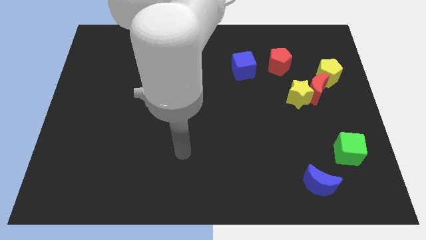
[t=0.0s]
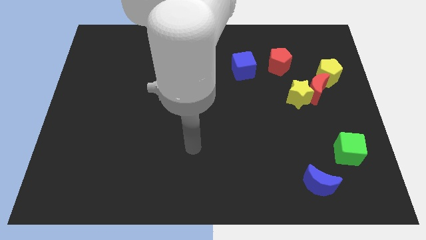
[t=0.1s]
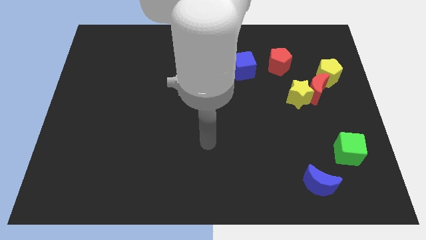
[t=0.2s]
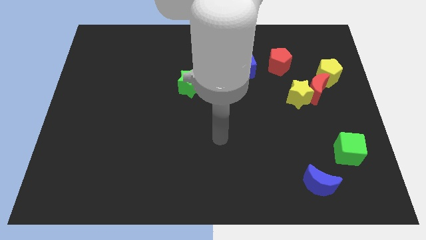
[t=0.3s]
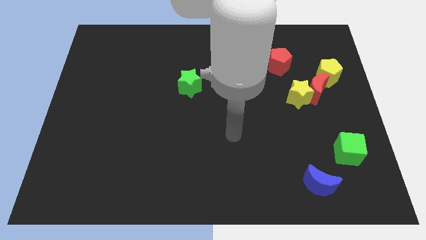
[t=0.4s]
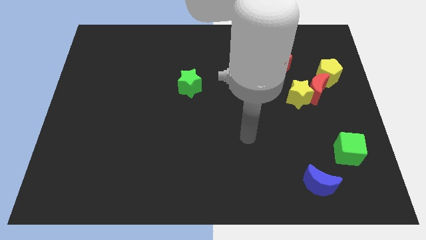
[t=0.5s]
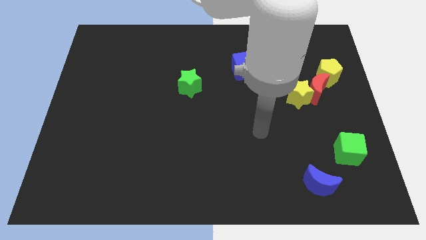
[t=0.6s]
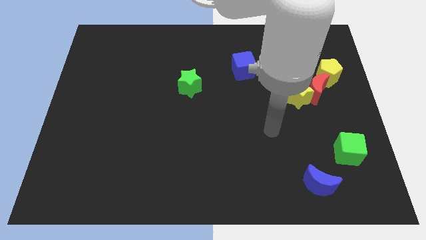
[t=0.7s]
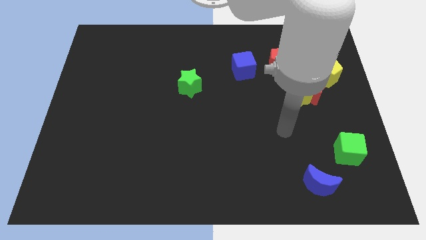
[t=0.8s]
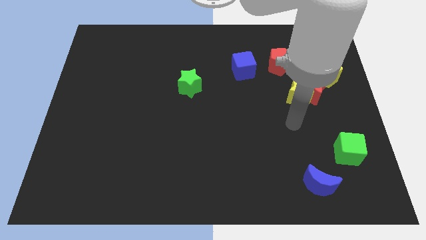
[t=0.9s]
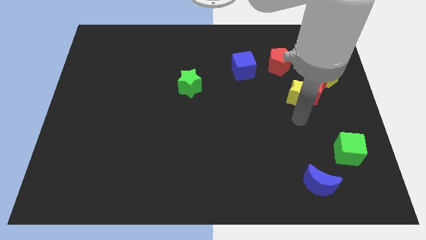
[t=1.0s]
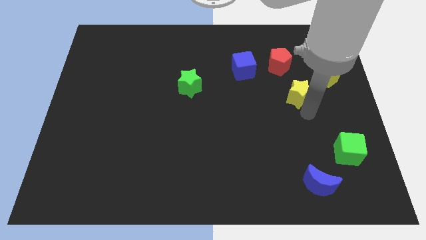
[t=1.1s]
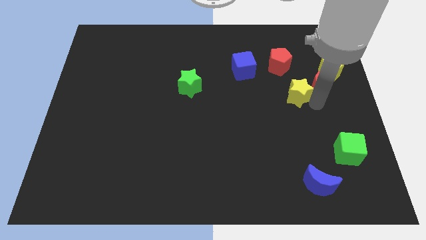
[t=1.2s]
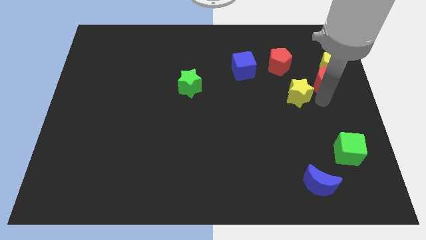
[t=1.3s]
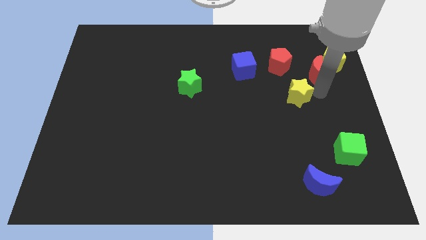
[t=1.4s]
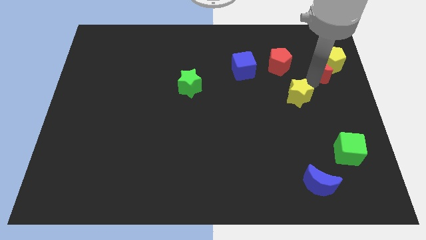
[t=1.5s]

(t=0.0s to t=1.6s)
move the yellow star away from the red moon

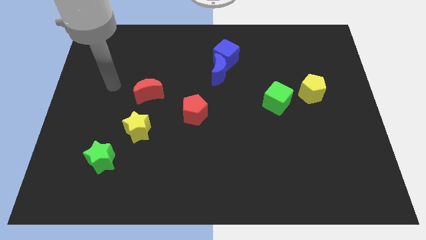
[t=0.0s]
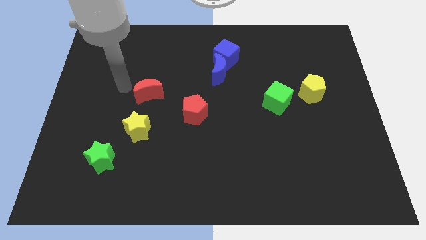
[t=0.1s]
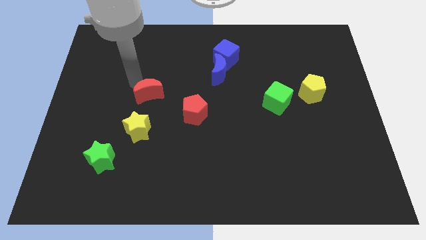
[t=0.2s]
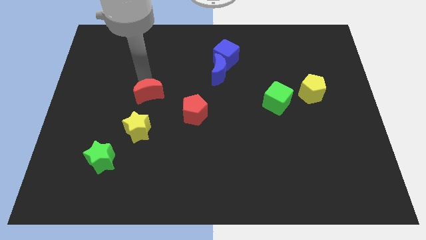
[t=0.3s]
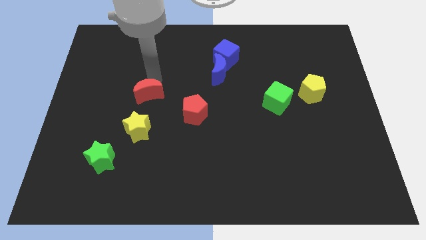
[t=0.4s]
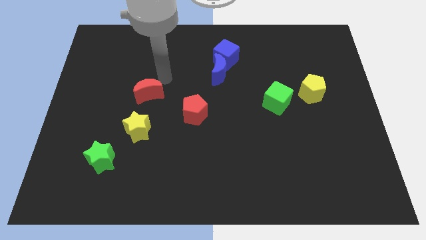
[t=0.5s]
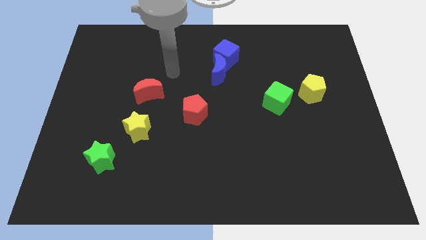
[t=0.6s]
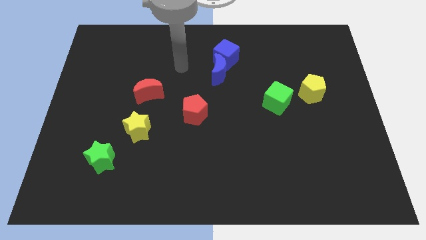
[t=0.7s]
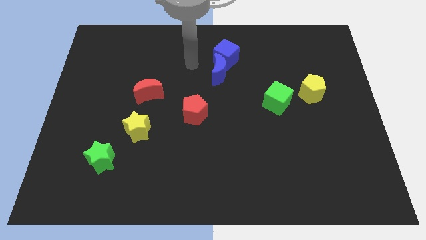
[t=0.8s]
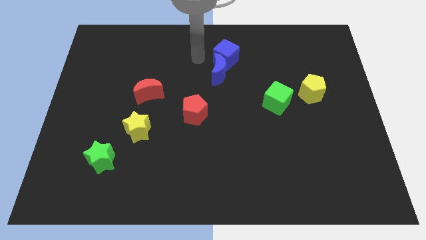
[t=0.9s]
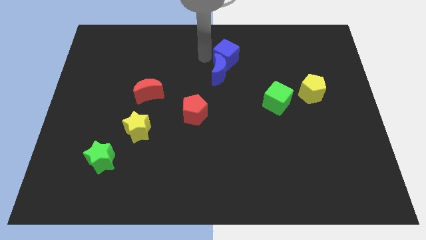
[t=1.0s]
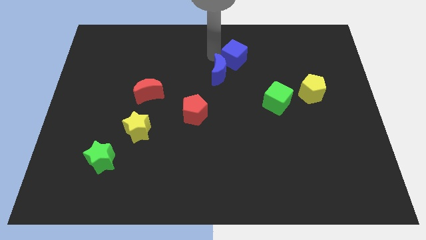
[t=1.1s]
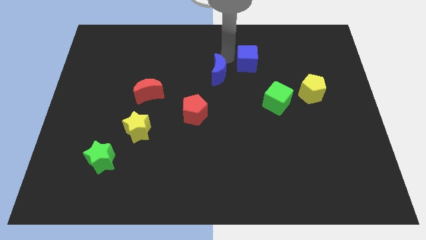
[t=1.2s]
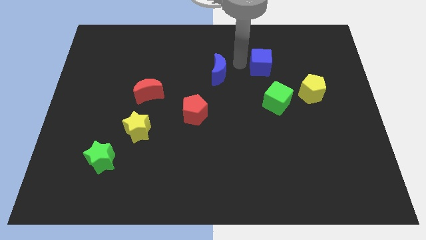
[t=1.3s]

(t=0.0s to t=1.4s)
separate the blue moon from the blue cube

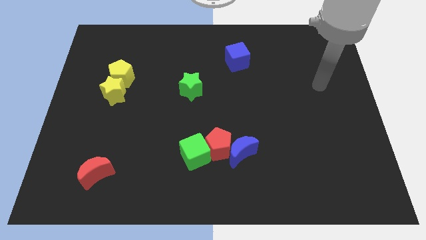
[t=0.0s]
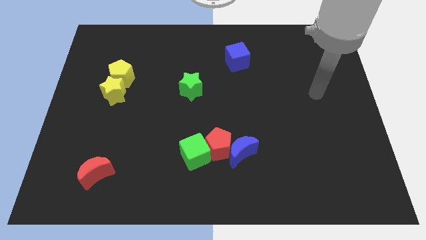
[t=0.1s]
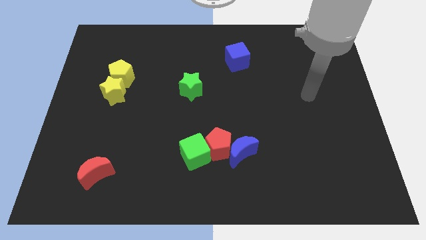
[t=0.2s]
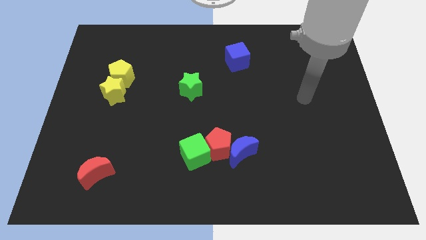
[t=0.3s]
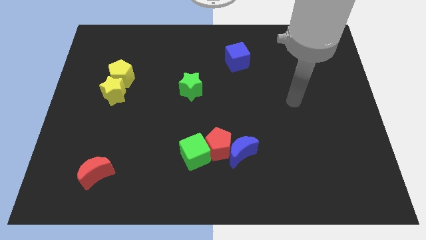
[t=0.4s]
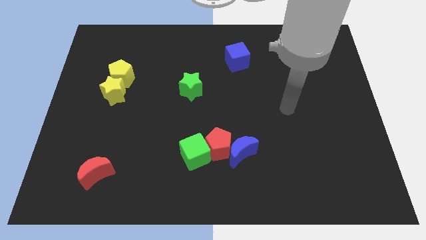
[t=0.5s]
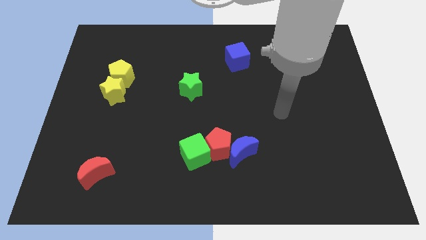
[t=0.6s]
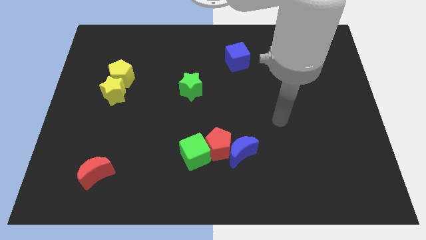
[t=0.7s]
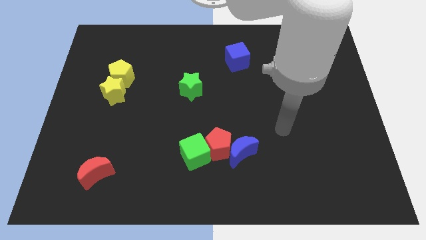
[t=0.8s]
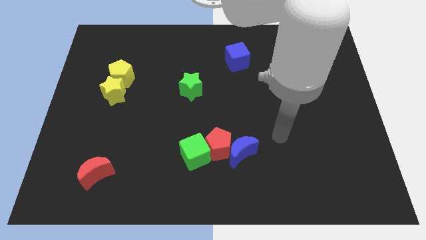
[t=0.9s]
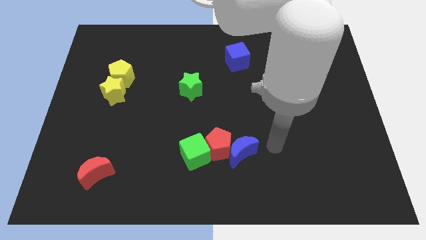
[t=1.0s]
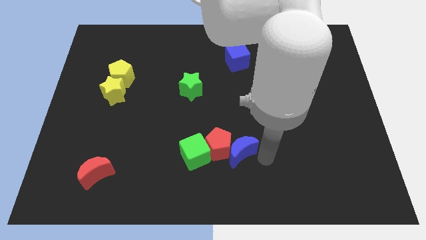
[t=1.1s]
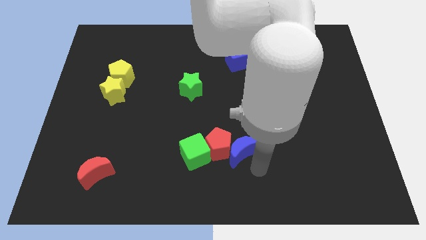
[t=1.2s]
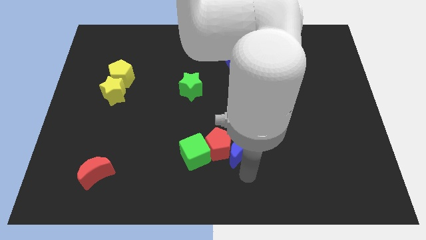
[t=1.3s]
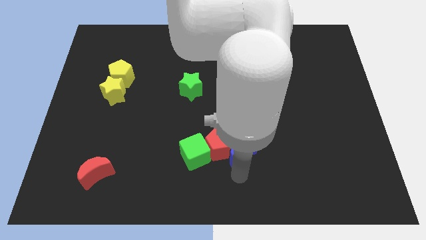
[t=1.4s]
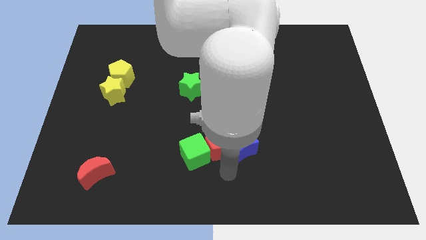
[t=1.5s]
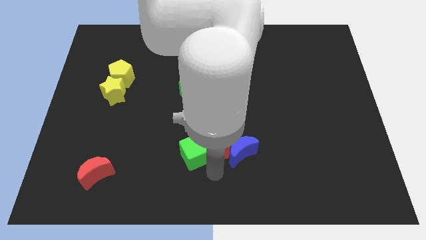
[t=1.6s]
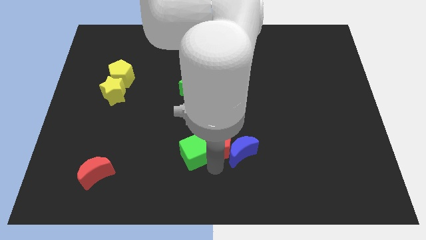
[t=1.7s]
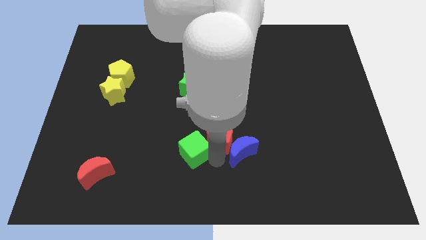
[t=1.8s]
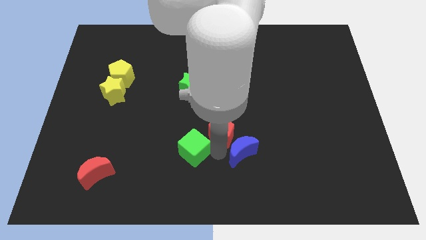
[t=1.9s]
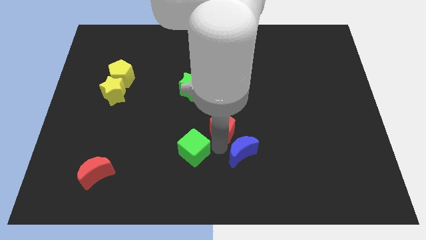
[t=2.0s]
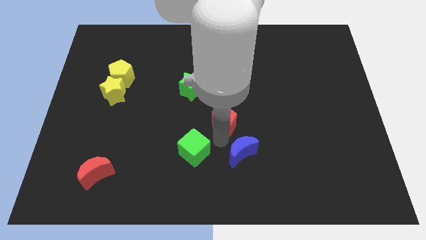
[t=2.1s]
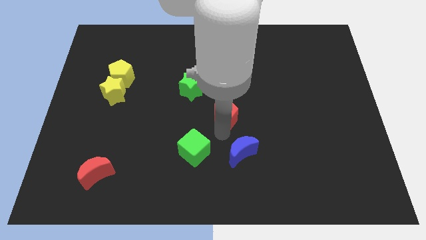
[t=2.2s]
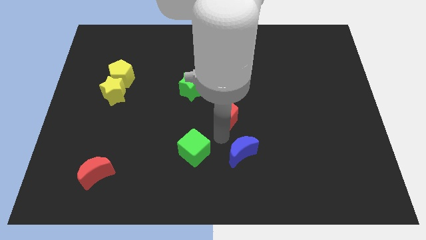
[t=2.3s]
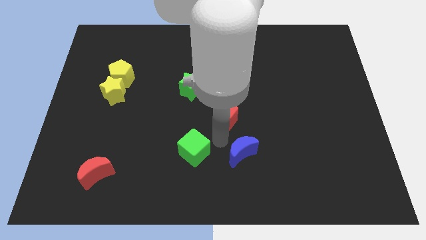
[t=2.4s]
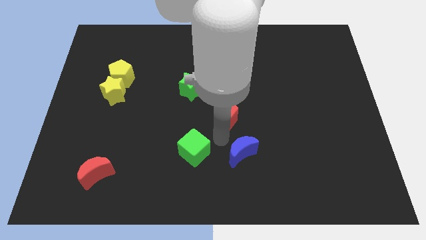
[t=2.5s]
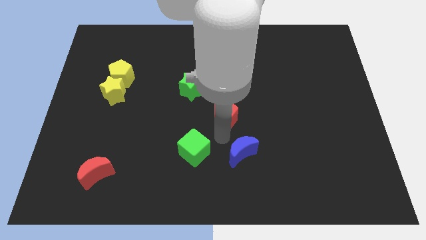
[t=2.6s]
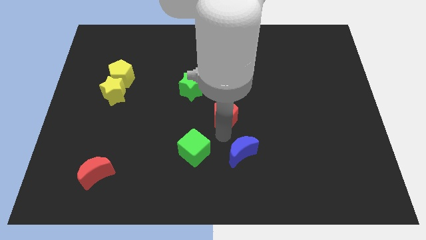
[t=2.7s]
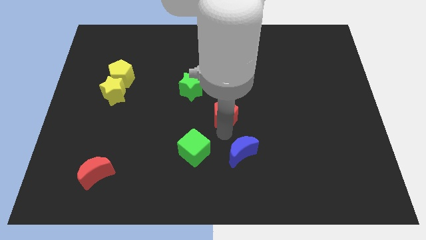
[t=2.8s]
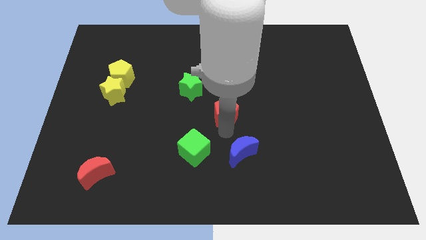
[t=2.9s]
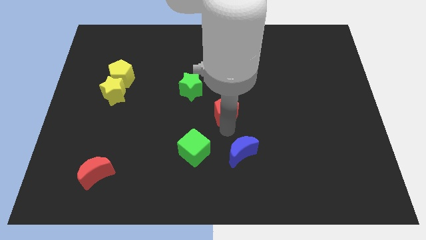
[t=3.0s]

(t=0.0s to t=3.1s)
separate the red pentagon from the blue moon and green cube

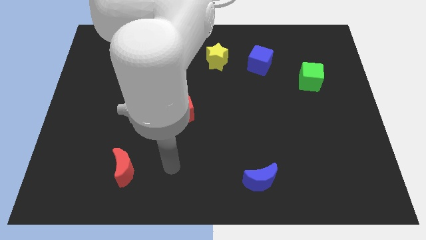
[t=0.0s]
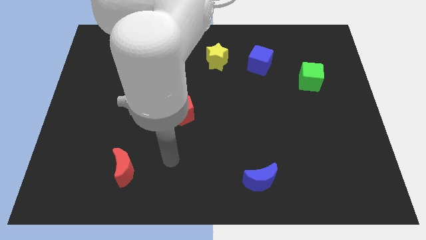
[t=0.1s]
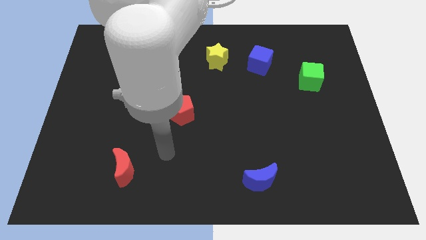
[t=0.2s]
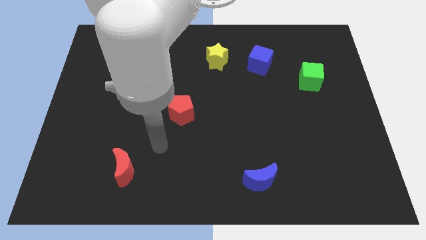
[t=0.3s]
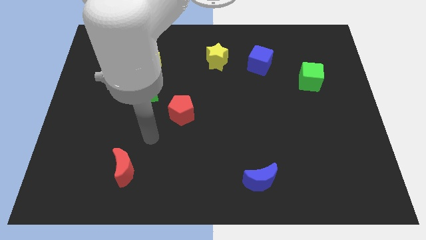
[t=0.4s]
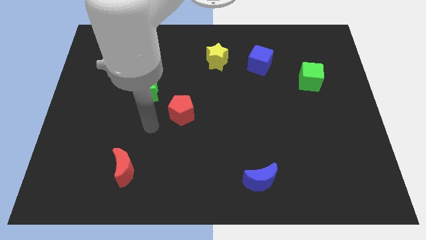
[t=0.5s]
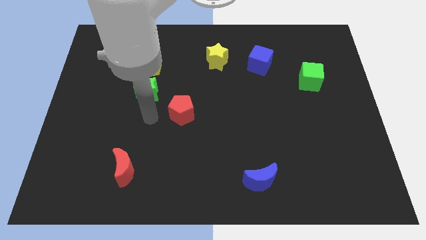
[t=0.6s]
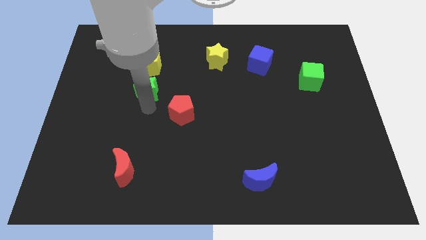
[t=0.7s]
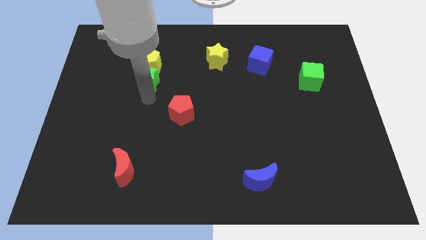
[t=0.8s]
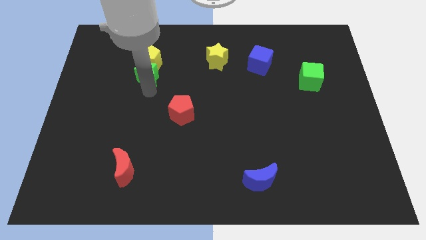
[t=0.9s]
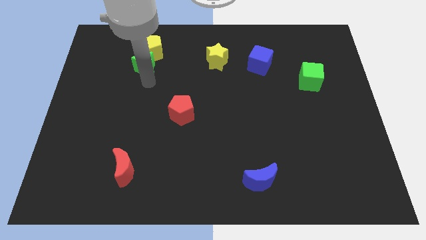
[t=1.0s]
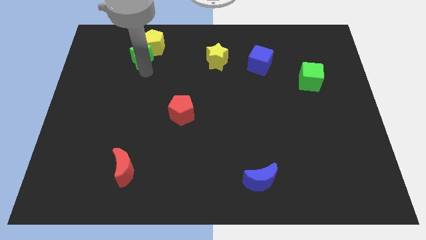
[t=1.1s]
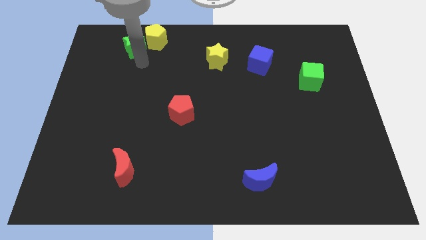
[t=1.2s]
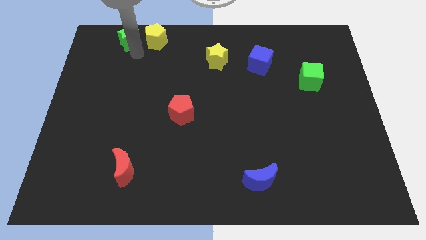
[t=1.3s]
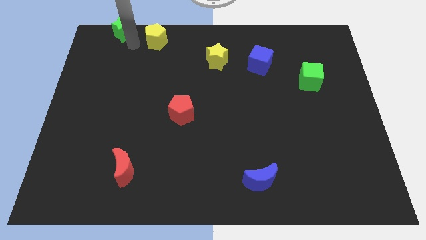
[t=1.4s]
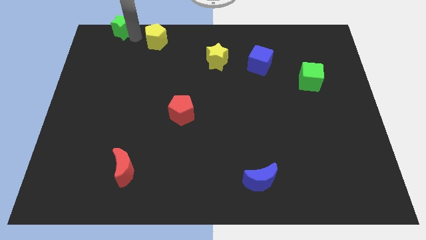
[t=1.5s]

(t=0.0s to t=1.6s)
pull the yellow pentagon apart from the green star

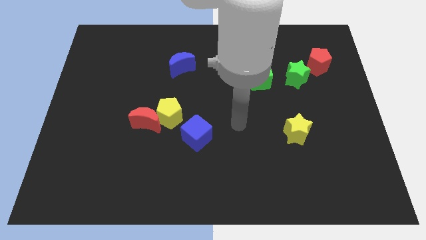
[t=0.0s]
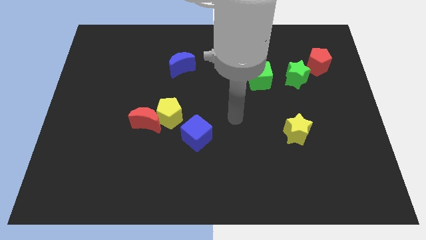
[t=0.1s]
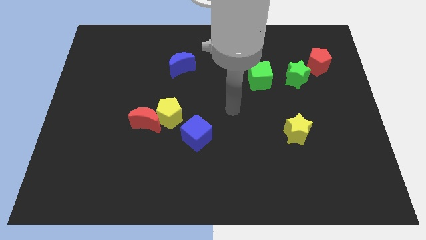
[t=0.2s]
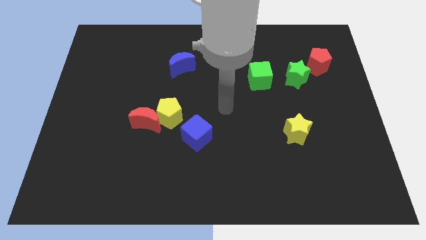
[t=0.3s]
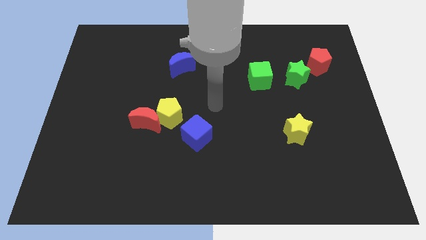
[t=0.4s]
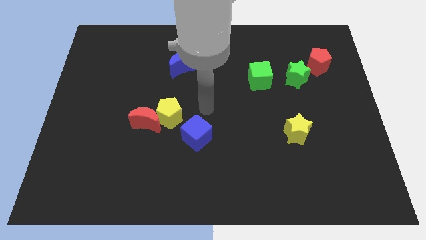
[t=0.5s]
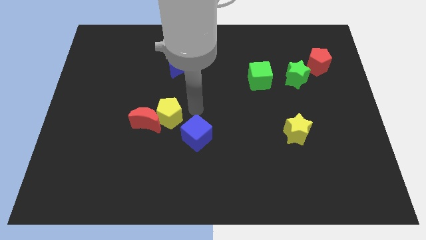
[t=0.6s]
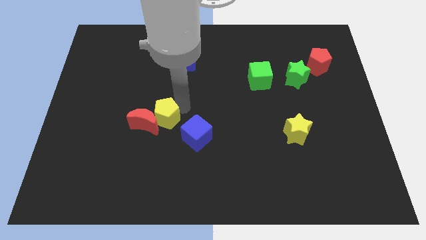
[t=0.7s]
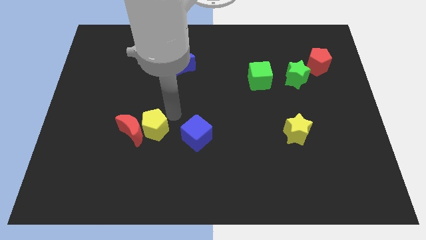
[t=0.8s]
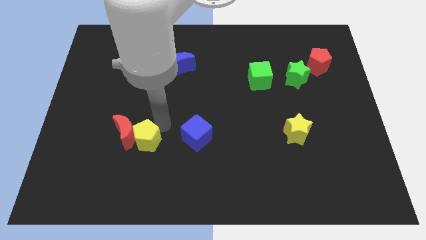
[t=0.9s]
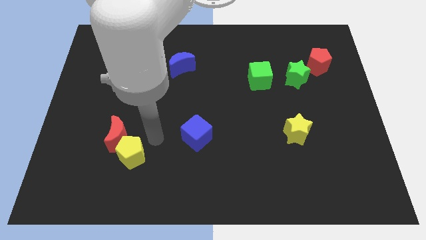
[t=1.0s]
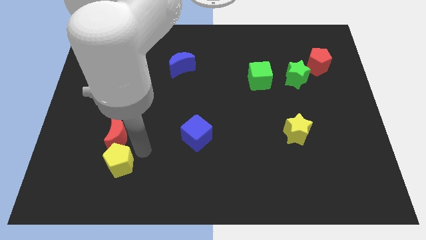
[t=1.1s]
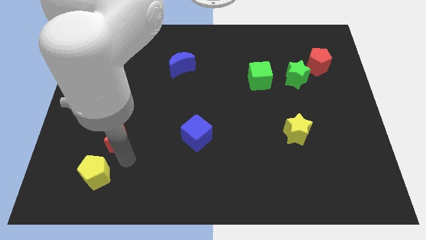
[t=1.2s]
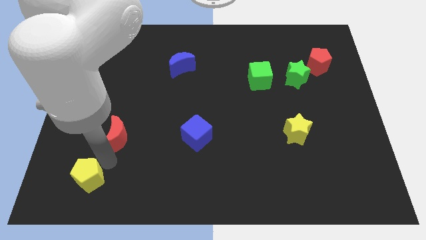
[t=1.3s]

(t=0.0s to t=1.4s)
move the red moon away from the yellow pentagon
